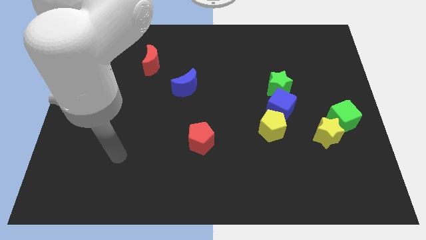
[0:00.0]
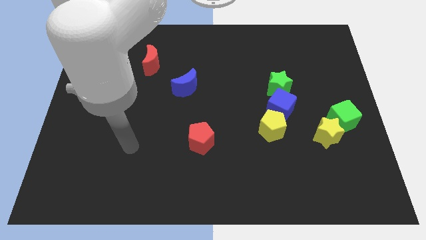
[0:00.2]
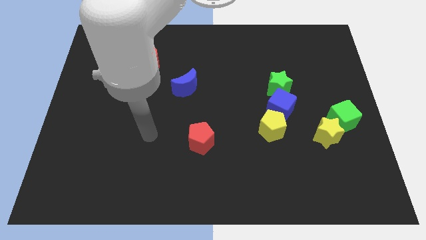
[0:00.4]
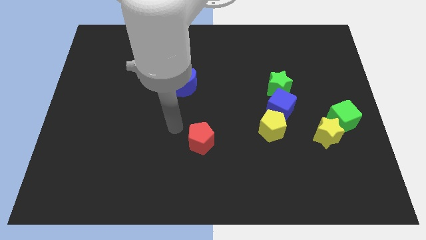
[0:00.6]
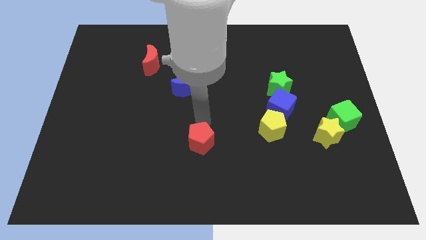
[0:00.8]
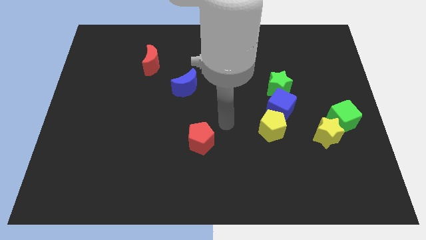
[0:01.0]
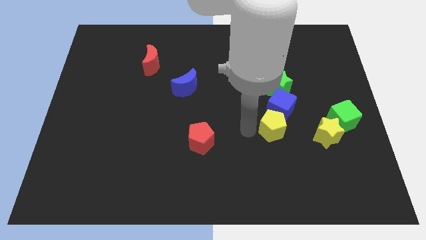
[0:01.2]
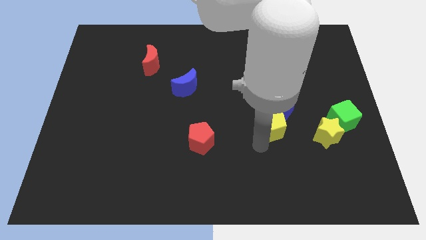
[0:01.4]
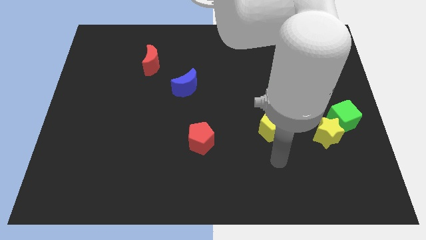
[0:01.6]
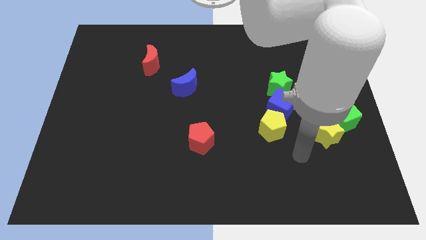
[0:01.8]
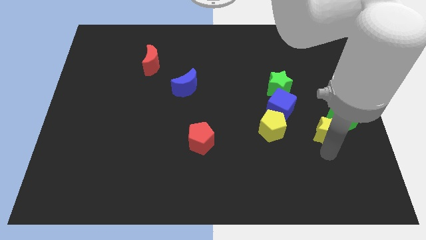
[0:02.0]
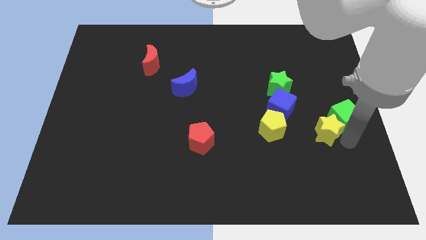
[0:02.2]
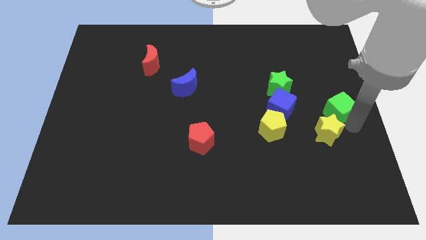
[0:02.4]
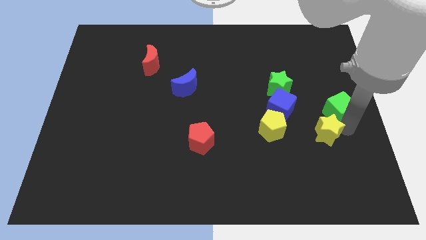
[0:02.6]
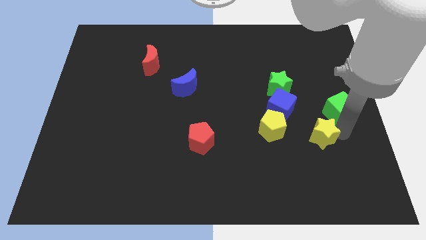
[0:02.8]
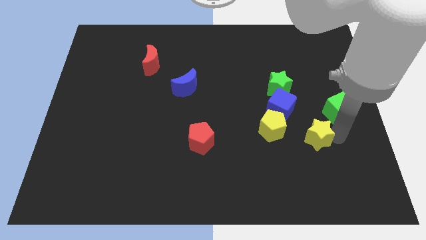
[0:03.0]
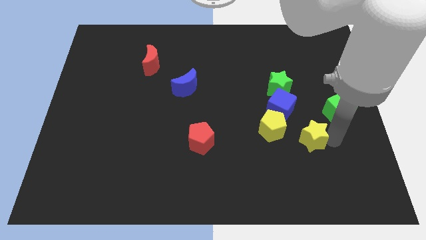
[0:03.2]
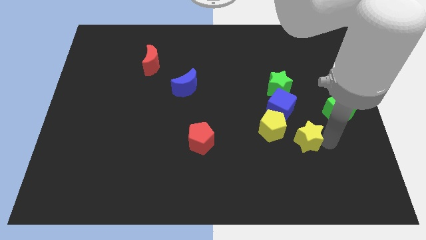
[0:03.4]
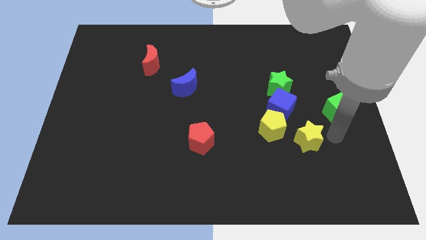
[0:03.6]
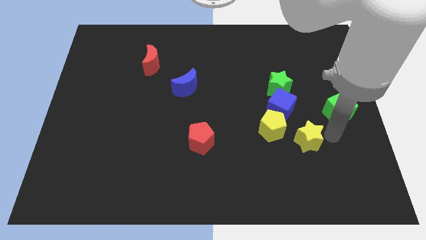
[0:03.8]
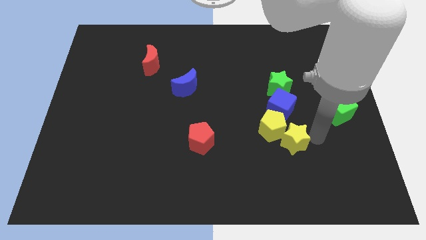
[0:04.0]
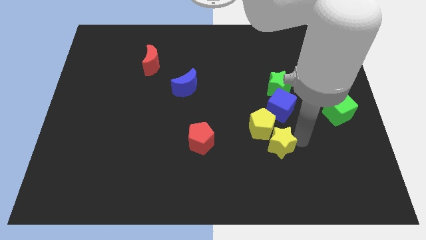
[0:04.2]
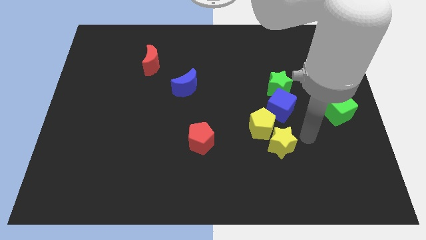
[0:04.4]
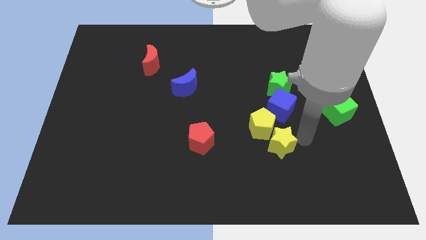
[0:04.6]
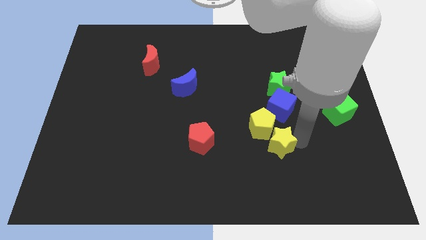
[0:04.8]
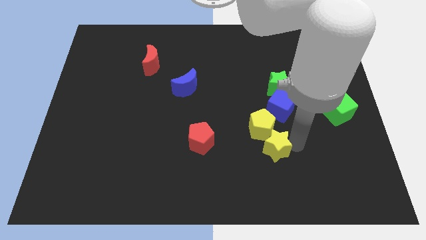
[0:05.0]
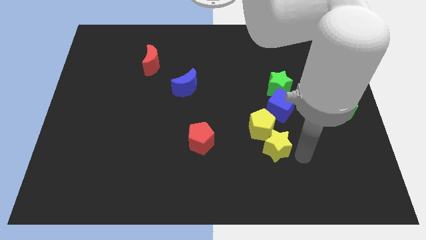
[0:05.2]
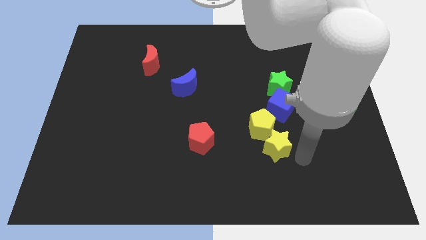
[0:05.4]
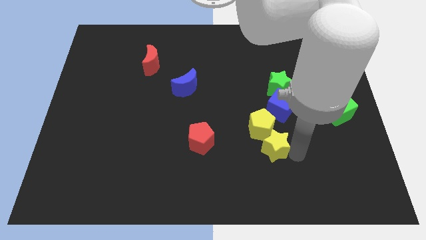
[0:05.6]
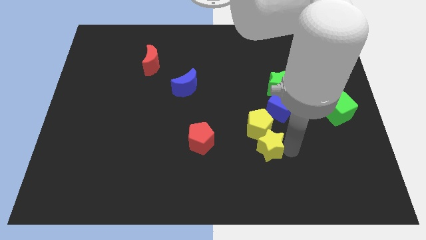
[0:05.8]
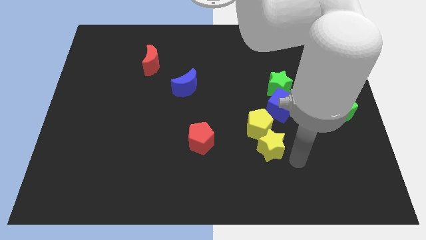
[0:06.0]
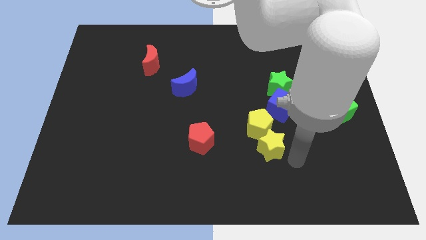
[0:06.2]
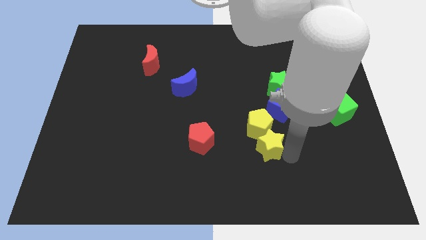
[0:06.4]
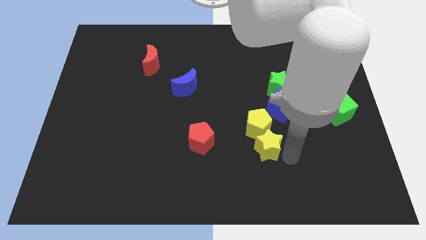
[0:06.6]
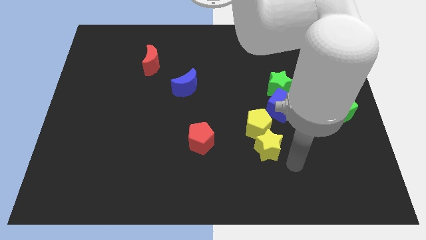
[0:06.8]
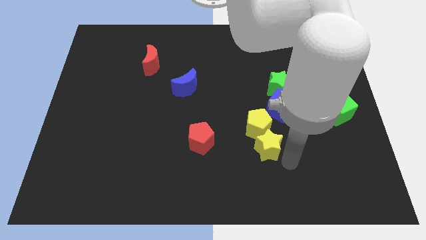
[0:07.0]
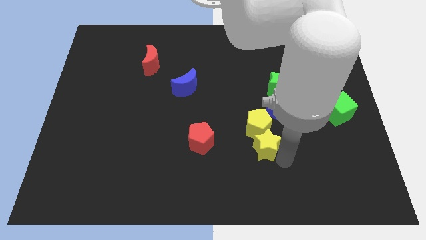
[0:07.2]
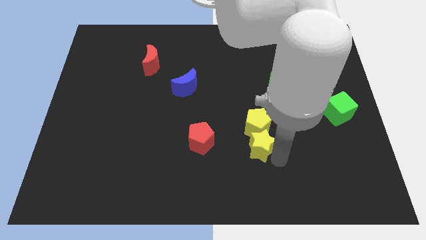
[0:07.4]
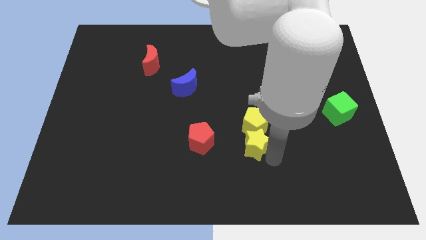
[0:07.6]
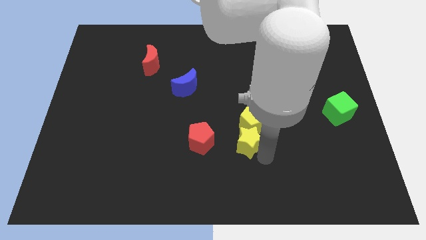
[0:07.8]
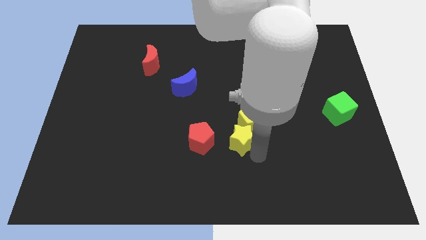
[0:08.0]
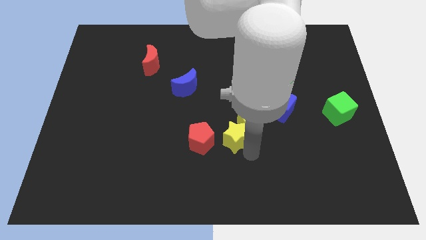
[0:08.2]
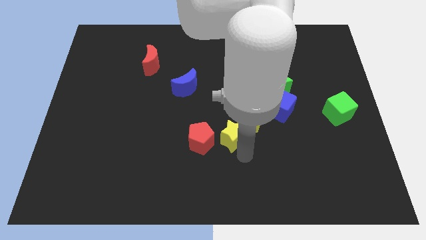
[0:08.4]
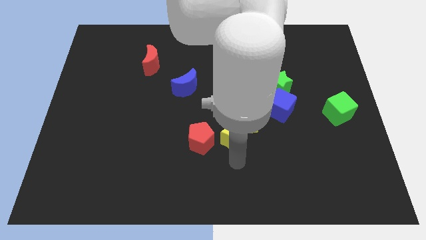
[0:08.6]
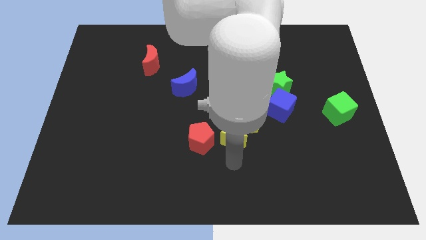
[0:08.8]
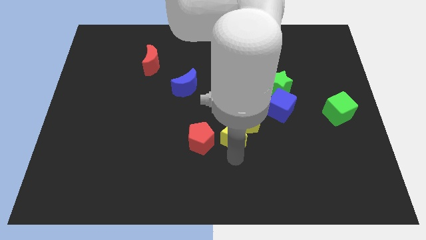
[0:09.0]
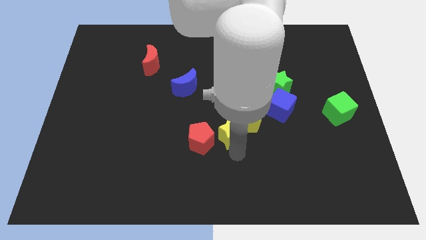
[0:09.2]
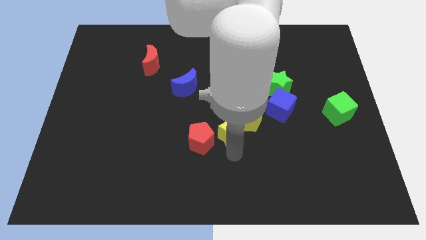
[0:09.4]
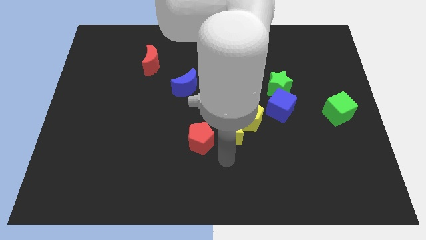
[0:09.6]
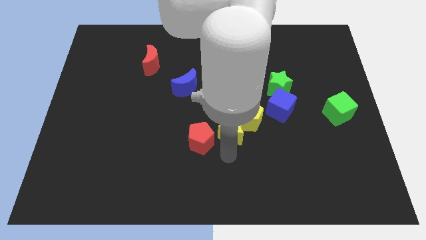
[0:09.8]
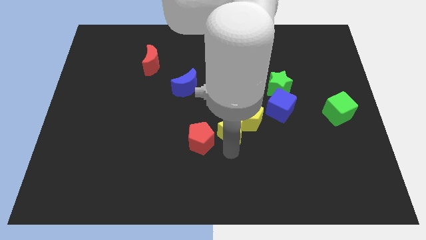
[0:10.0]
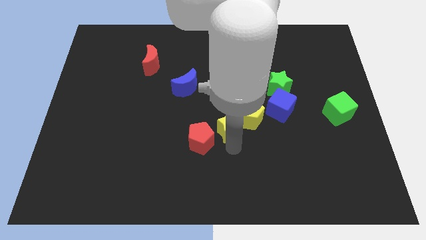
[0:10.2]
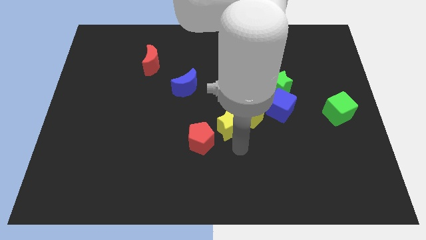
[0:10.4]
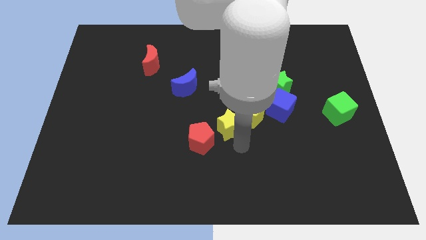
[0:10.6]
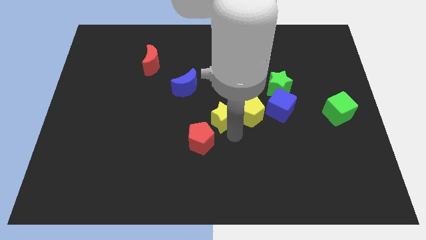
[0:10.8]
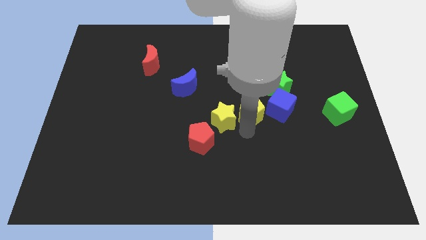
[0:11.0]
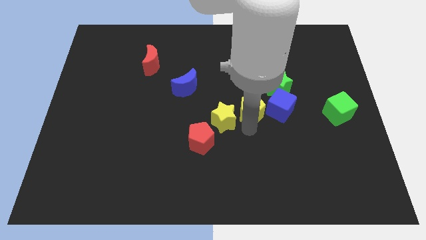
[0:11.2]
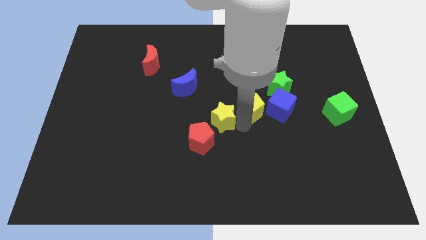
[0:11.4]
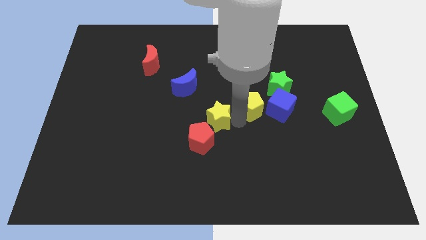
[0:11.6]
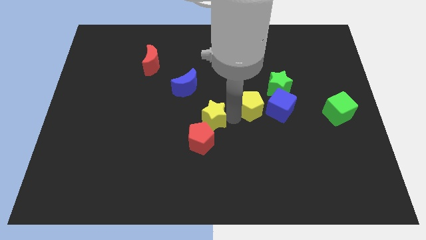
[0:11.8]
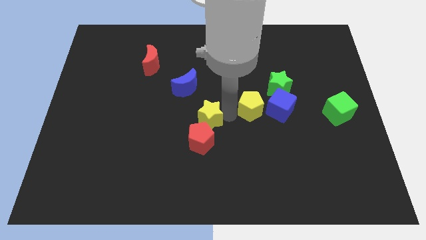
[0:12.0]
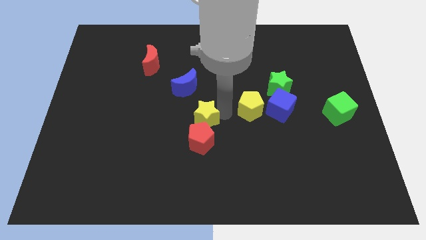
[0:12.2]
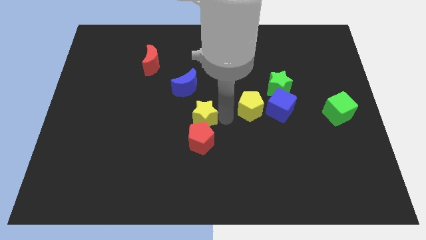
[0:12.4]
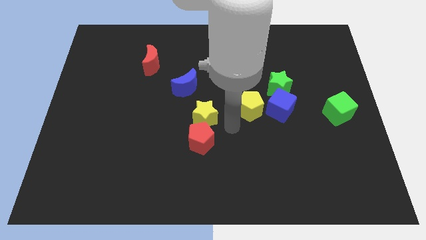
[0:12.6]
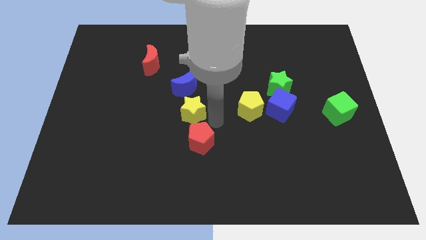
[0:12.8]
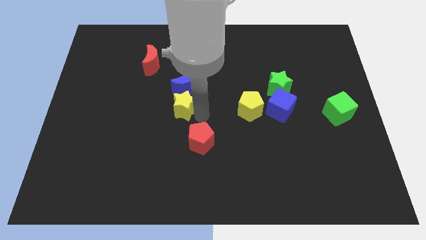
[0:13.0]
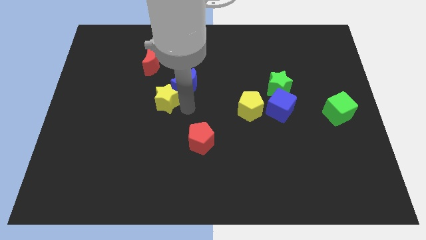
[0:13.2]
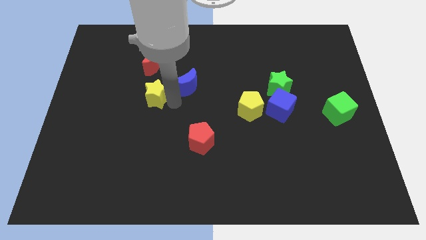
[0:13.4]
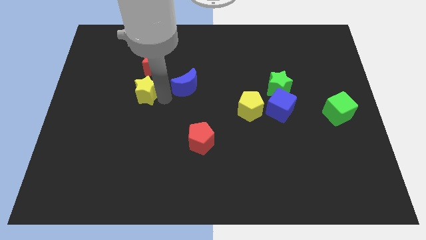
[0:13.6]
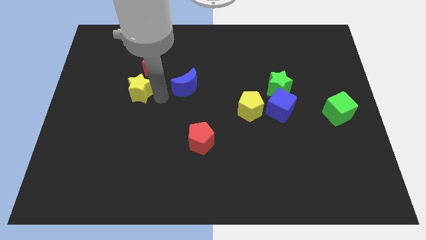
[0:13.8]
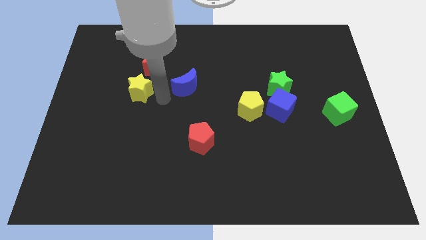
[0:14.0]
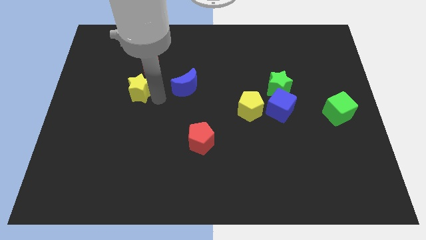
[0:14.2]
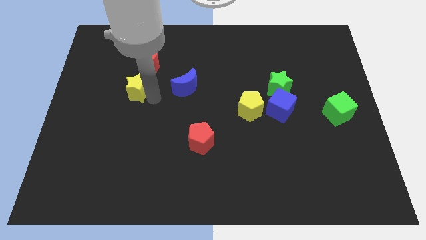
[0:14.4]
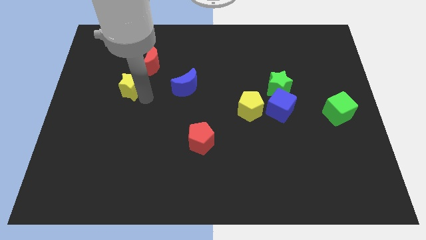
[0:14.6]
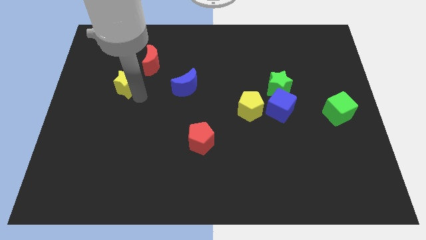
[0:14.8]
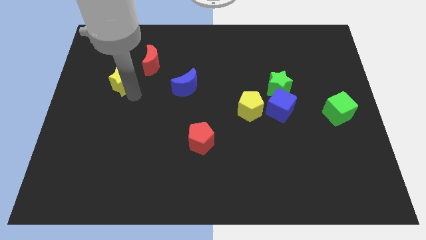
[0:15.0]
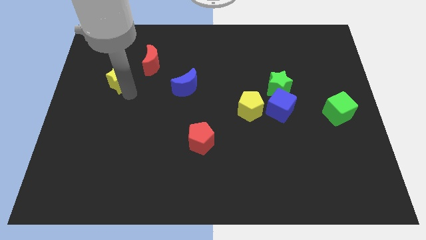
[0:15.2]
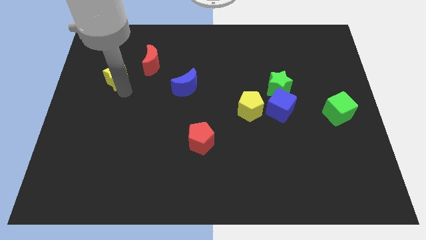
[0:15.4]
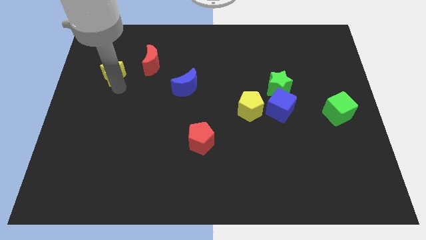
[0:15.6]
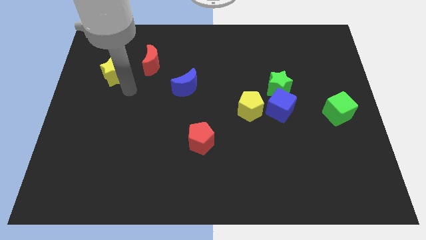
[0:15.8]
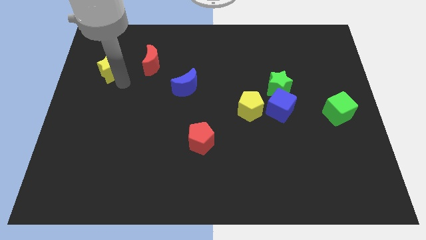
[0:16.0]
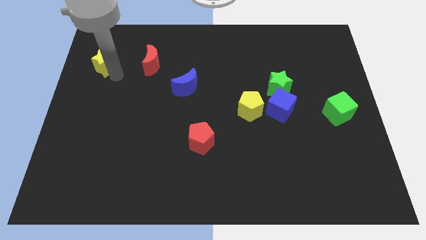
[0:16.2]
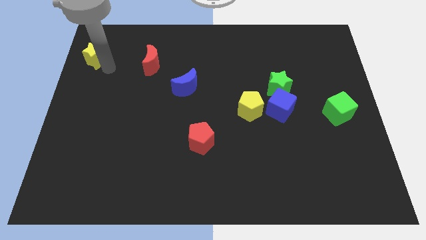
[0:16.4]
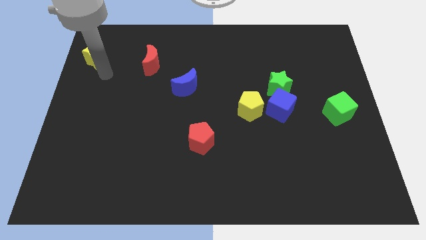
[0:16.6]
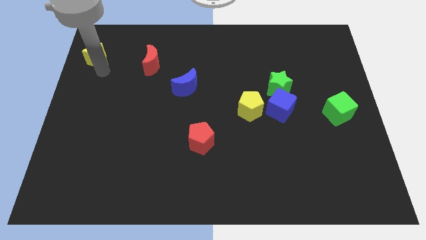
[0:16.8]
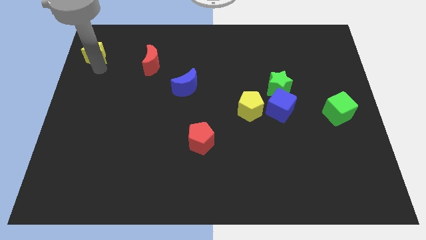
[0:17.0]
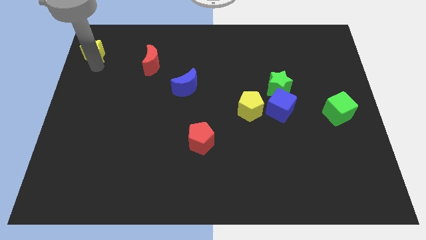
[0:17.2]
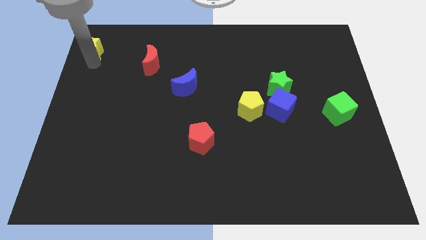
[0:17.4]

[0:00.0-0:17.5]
slide the yellow star to the top left
